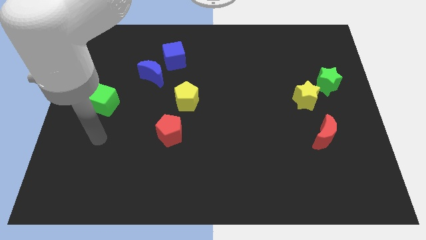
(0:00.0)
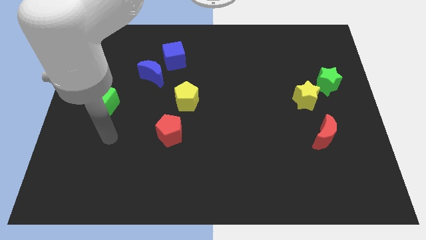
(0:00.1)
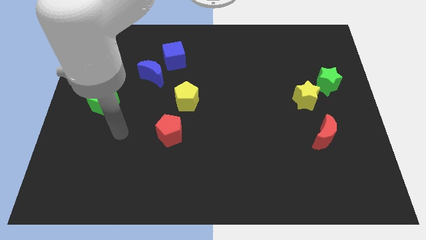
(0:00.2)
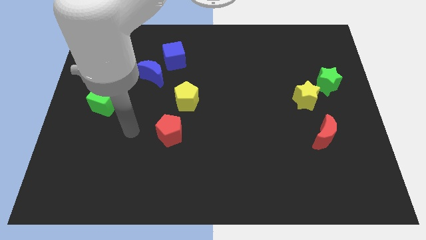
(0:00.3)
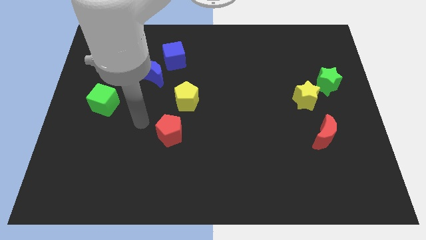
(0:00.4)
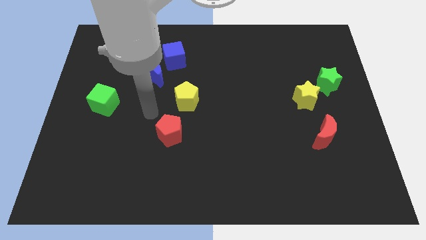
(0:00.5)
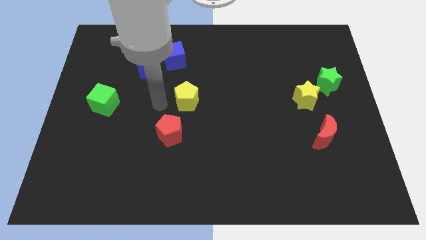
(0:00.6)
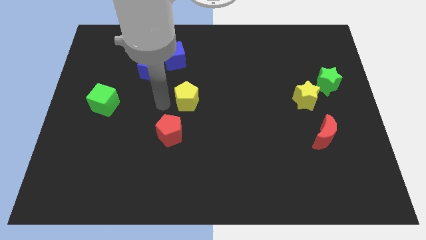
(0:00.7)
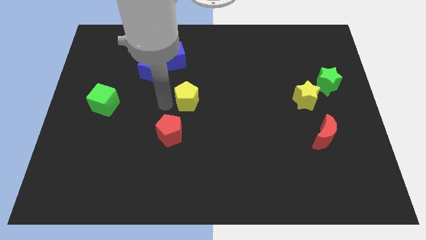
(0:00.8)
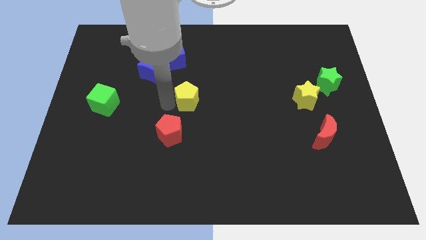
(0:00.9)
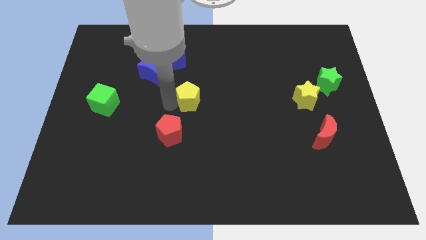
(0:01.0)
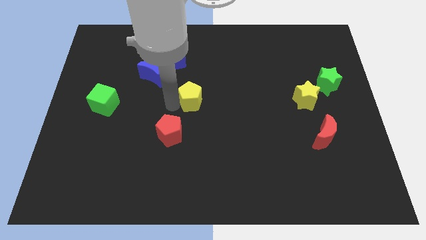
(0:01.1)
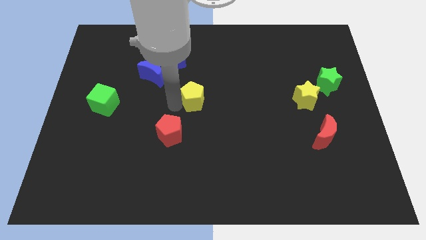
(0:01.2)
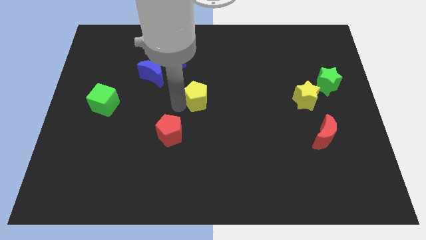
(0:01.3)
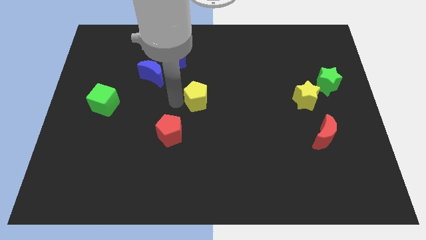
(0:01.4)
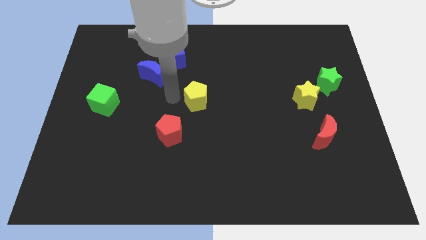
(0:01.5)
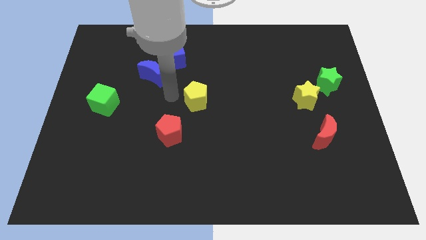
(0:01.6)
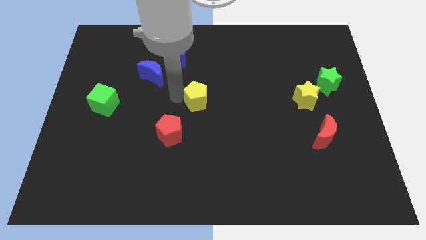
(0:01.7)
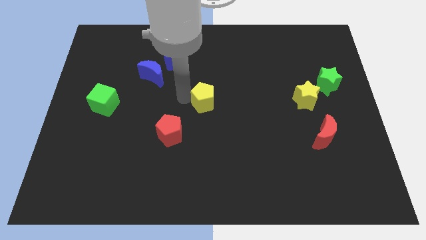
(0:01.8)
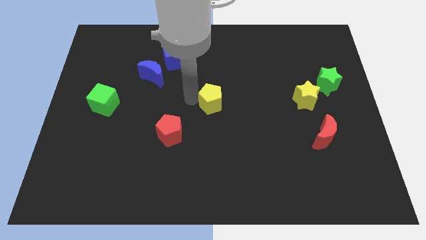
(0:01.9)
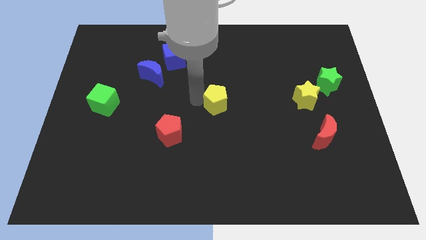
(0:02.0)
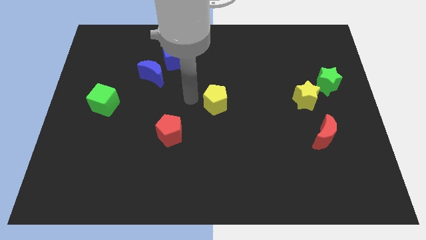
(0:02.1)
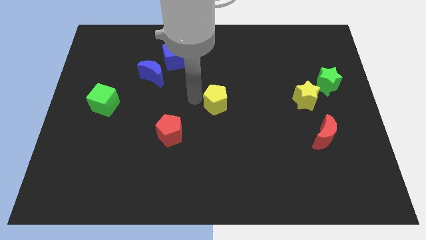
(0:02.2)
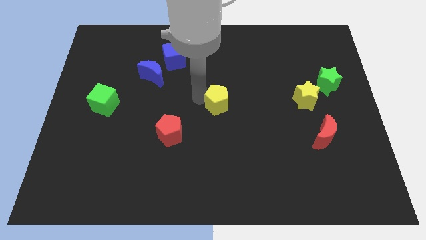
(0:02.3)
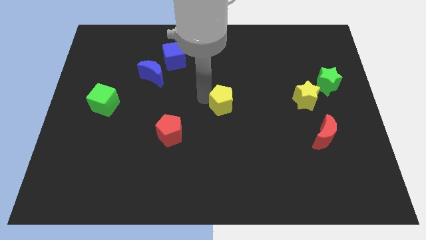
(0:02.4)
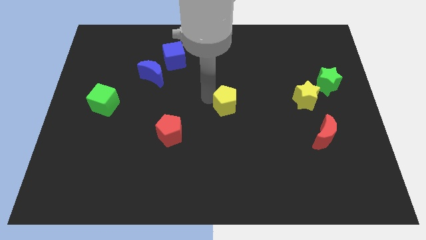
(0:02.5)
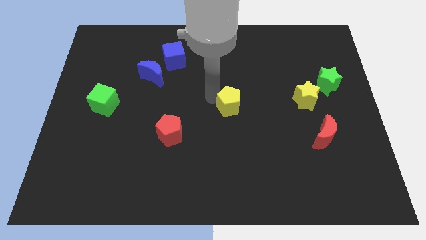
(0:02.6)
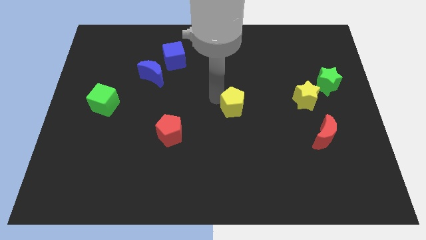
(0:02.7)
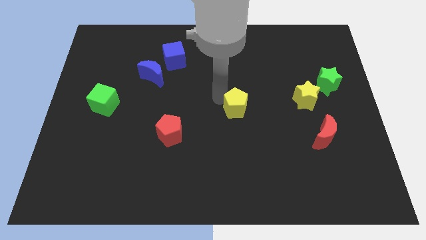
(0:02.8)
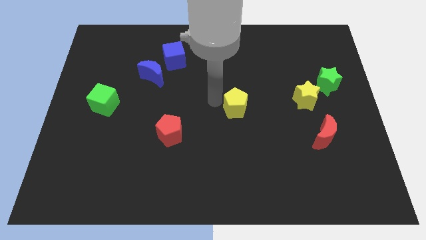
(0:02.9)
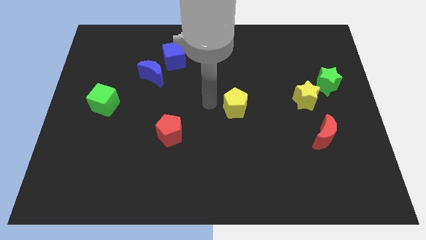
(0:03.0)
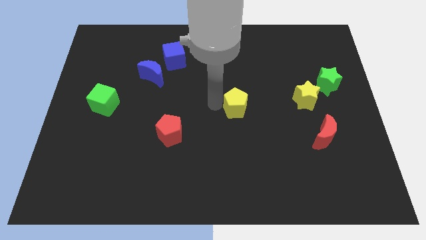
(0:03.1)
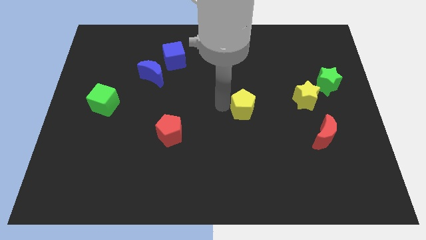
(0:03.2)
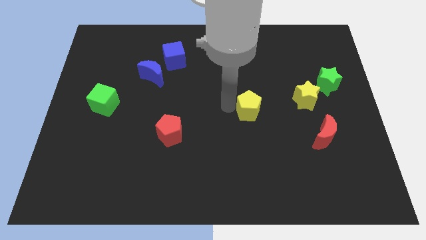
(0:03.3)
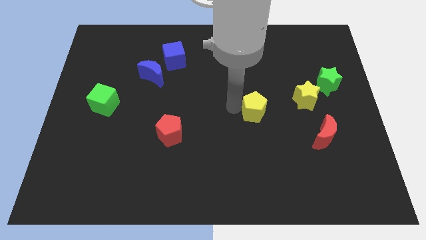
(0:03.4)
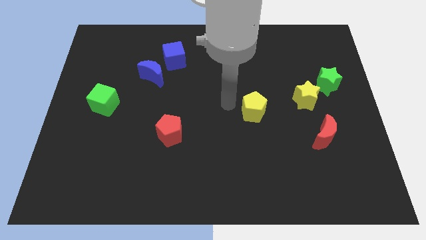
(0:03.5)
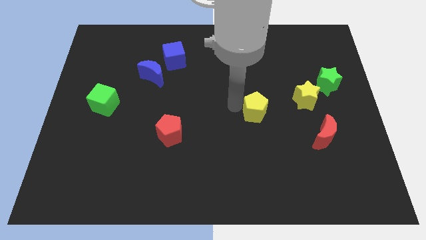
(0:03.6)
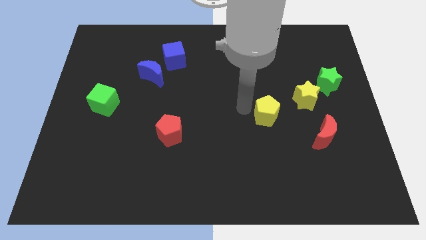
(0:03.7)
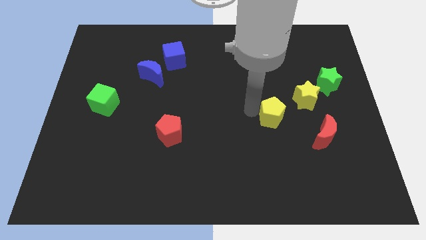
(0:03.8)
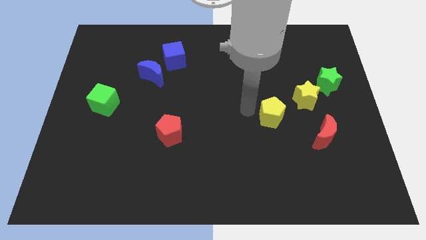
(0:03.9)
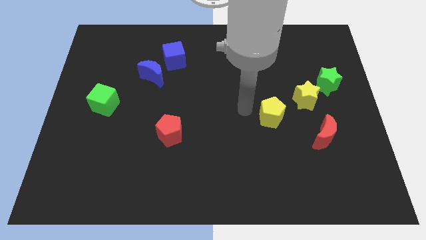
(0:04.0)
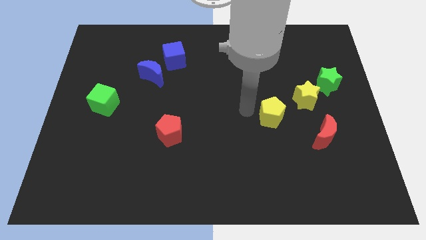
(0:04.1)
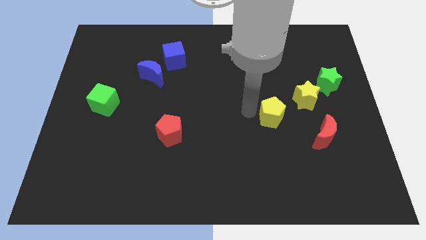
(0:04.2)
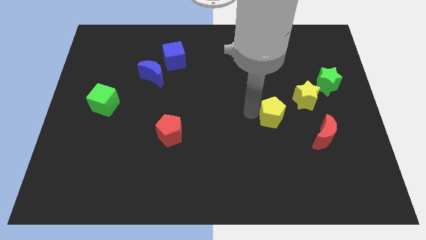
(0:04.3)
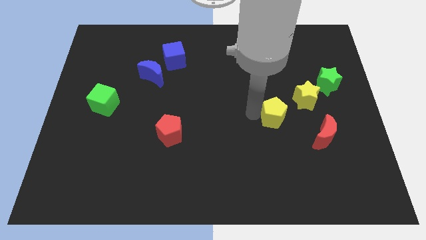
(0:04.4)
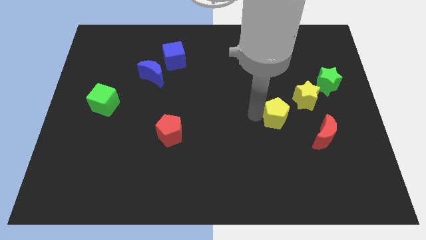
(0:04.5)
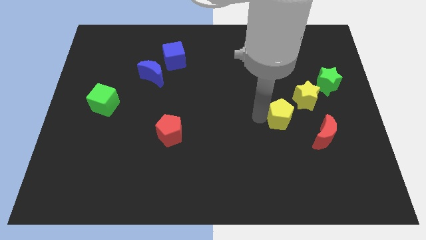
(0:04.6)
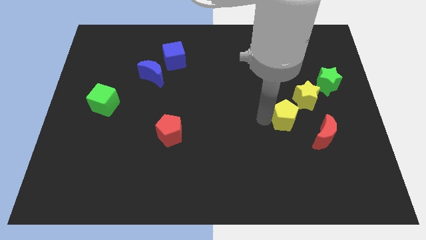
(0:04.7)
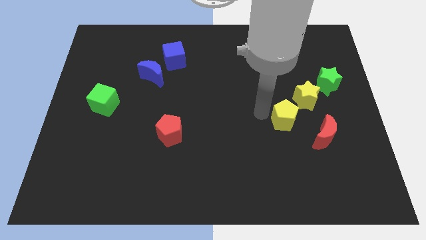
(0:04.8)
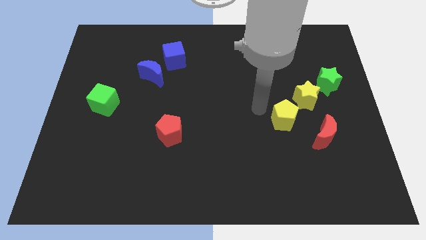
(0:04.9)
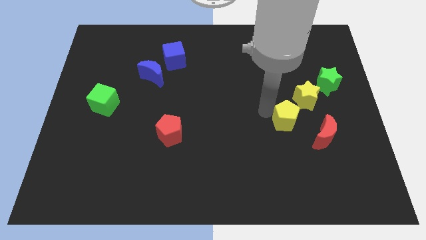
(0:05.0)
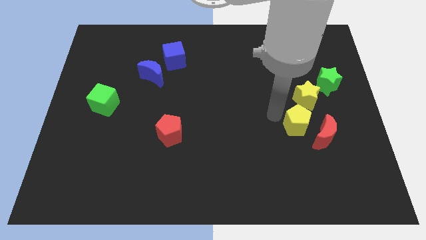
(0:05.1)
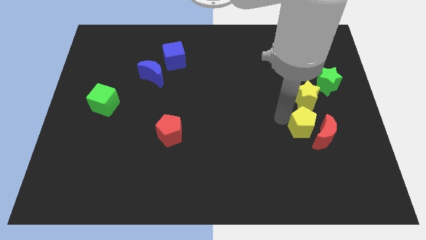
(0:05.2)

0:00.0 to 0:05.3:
push the yellow pentagon next to the red moon

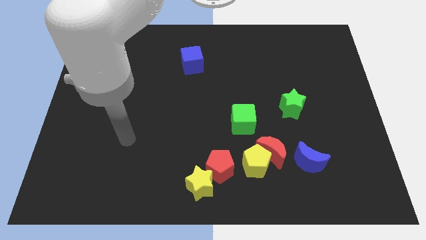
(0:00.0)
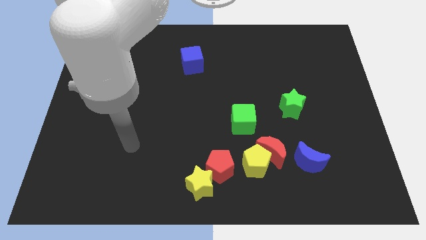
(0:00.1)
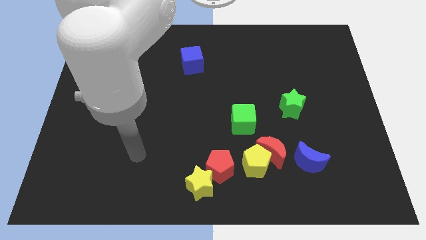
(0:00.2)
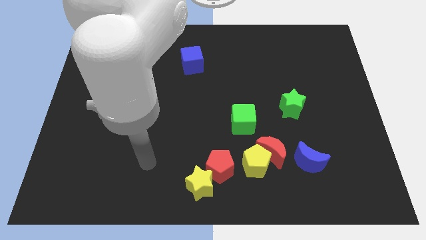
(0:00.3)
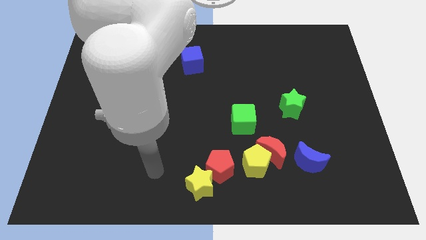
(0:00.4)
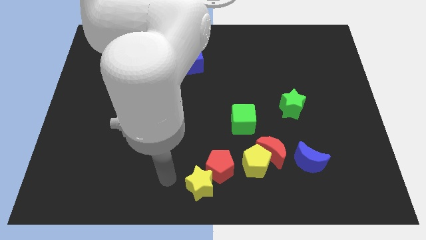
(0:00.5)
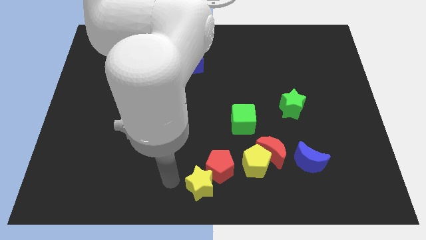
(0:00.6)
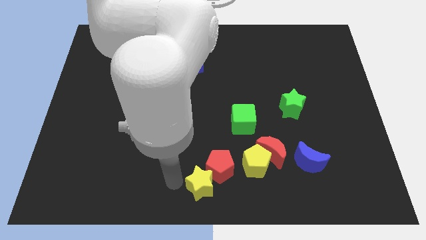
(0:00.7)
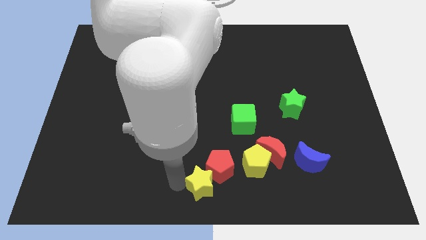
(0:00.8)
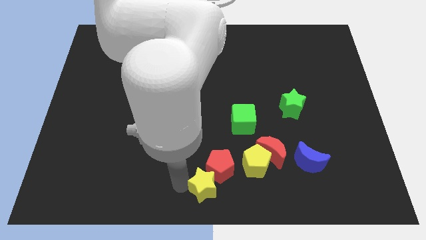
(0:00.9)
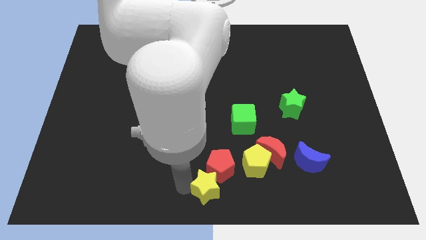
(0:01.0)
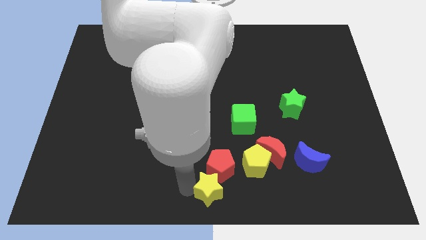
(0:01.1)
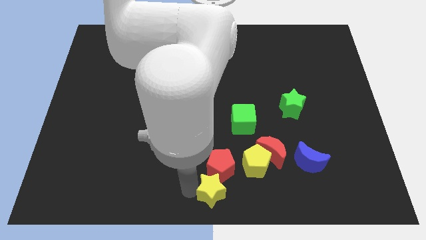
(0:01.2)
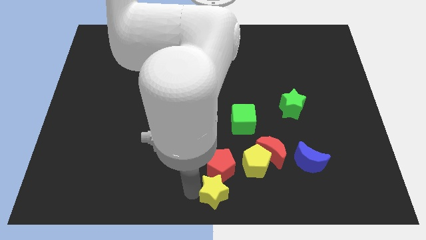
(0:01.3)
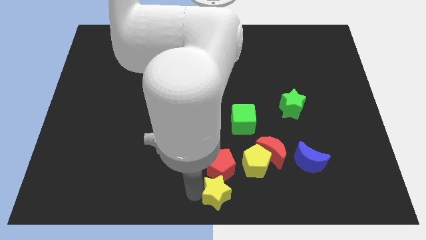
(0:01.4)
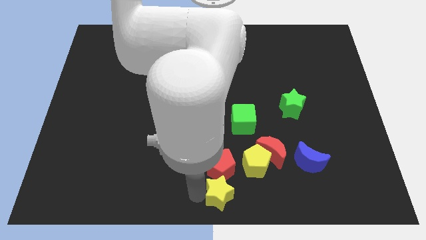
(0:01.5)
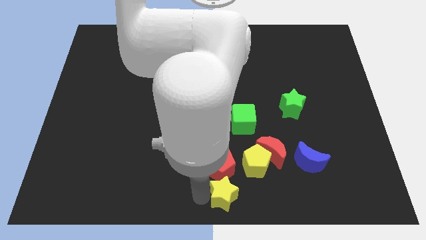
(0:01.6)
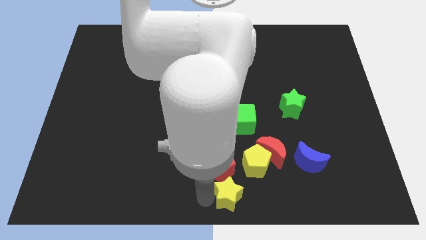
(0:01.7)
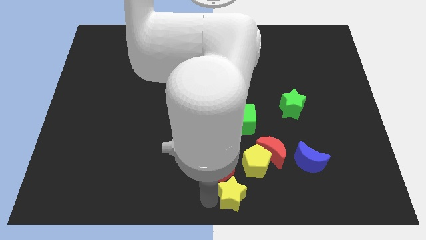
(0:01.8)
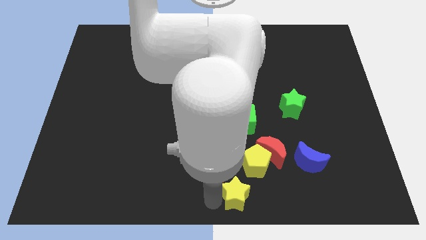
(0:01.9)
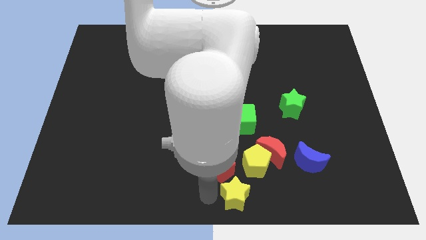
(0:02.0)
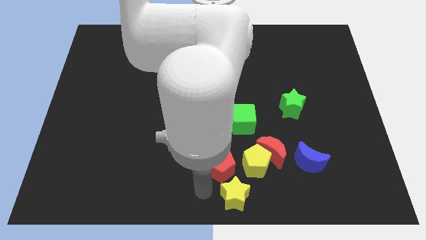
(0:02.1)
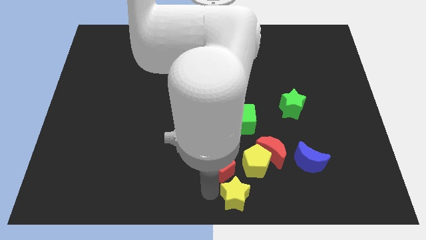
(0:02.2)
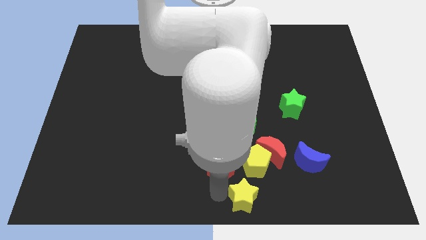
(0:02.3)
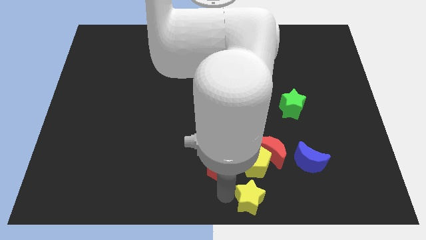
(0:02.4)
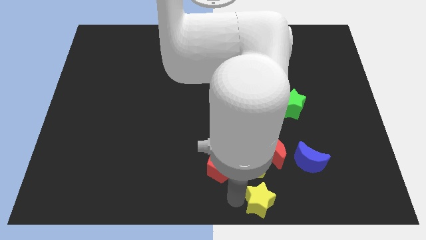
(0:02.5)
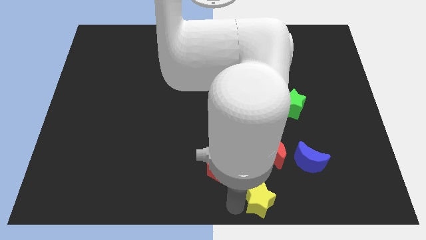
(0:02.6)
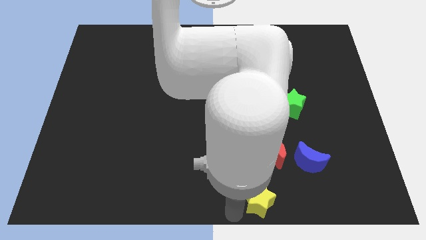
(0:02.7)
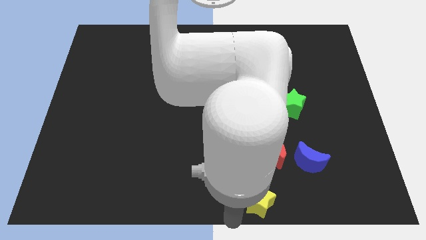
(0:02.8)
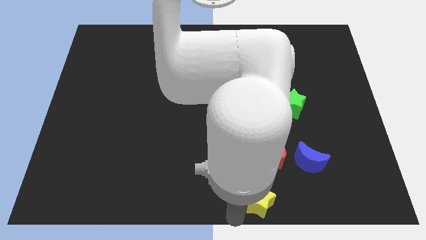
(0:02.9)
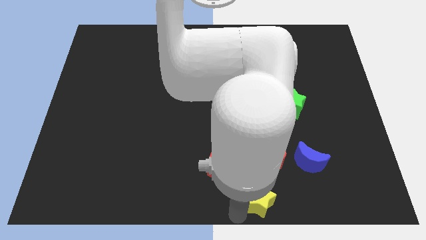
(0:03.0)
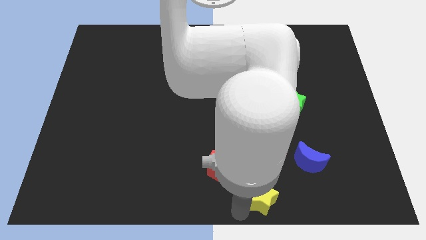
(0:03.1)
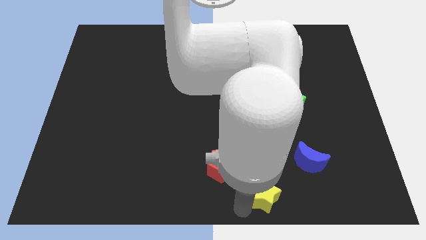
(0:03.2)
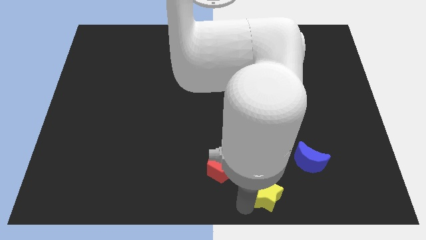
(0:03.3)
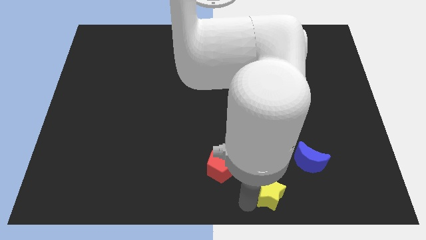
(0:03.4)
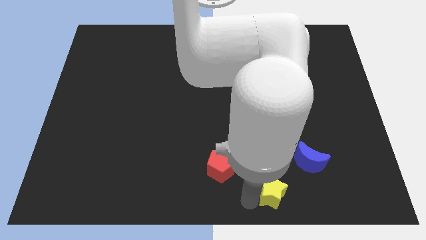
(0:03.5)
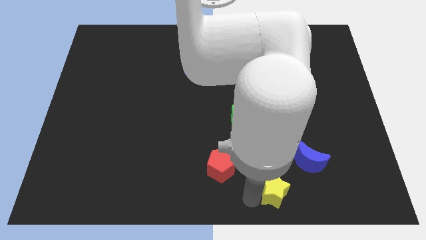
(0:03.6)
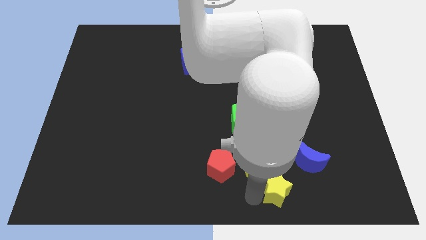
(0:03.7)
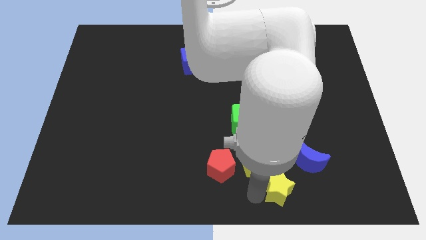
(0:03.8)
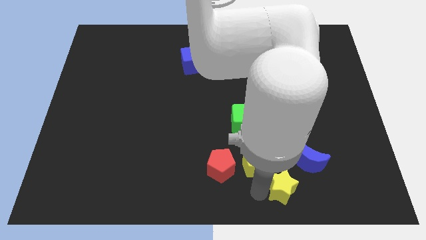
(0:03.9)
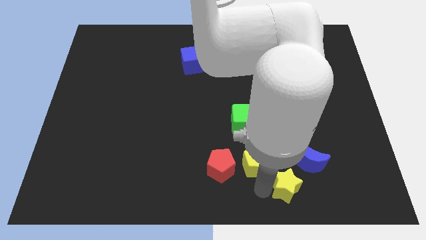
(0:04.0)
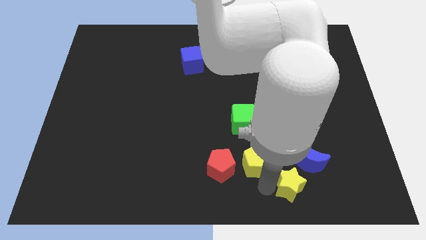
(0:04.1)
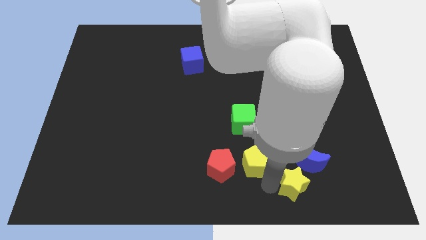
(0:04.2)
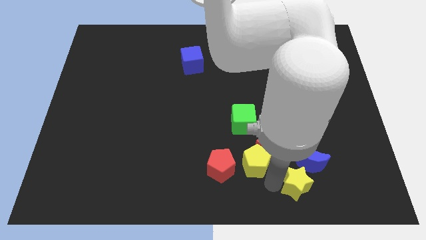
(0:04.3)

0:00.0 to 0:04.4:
move the yellow star next to the blue moon
